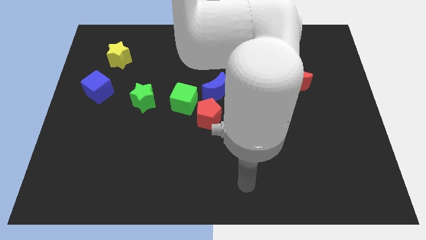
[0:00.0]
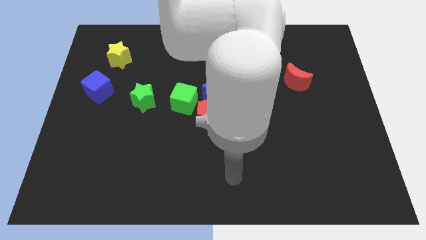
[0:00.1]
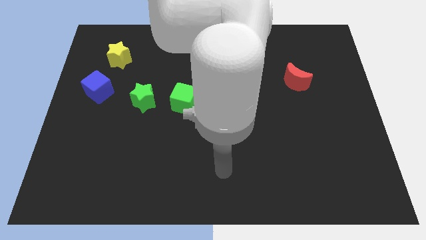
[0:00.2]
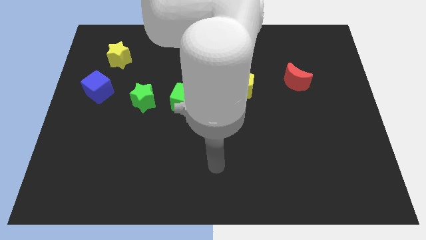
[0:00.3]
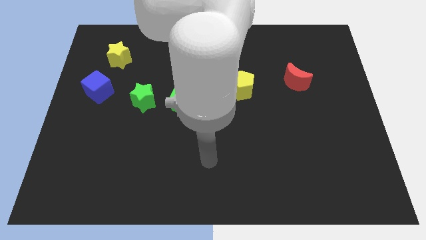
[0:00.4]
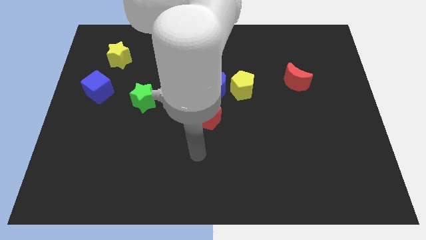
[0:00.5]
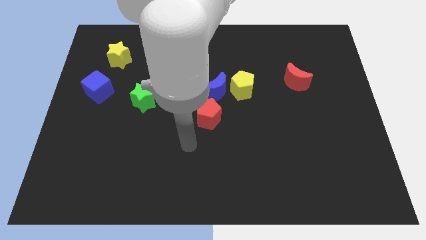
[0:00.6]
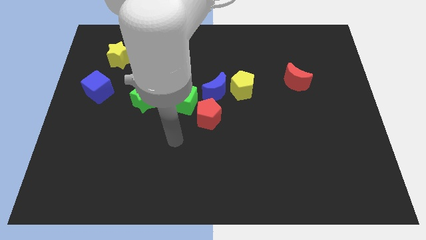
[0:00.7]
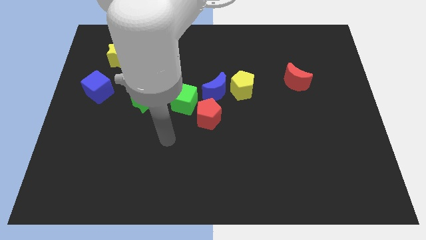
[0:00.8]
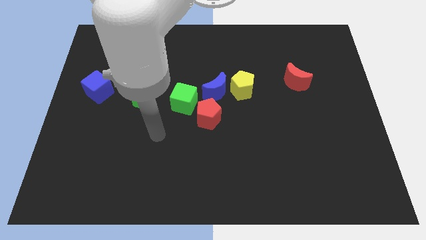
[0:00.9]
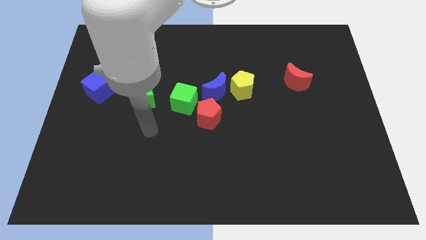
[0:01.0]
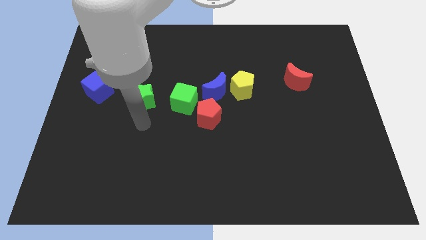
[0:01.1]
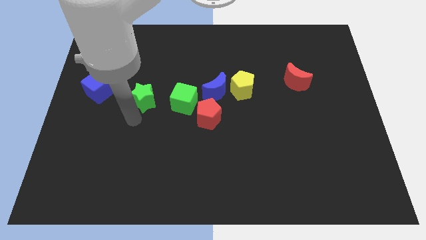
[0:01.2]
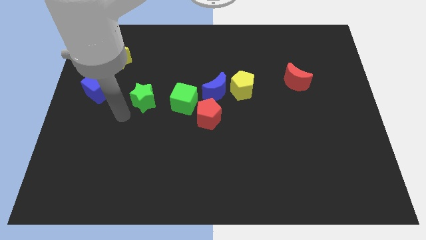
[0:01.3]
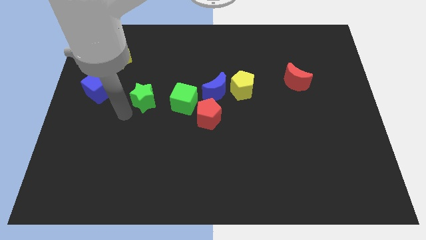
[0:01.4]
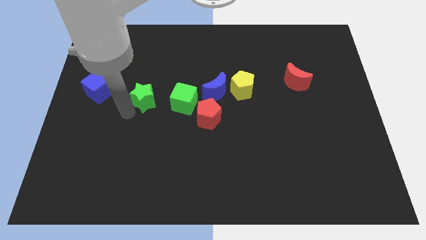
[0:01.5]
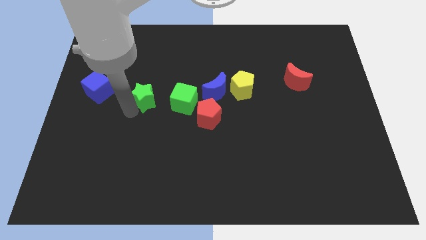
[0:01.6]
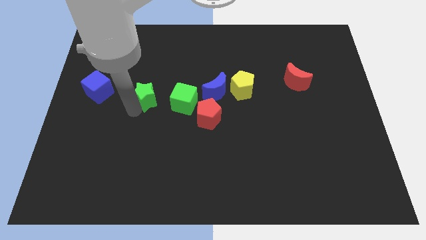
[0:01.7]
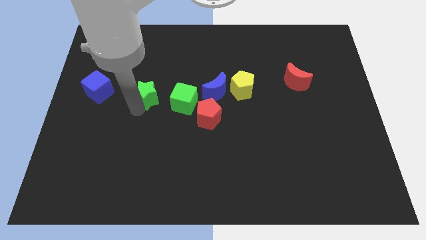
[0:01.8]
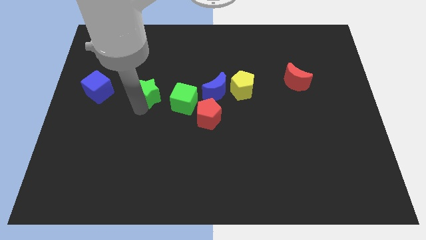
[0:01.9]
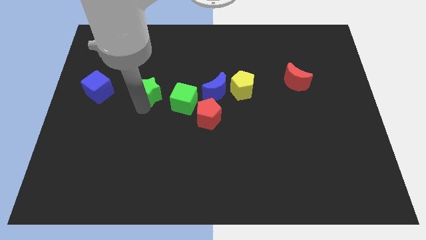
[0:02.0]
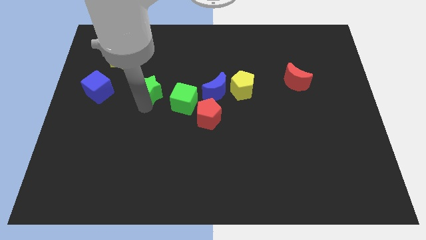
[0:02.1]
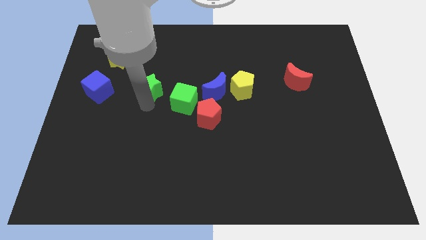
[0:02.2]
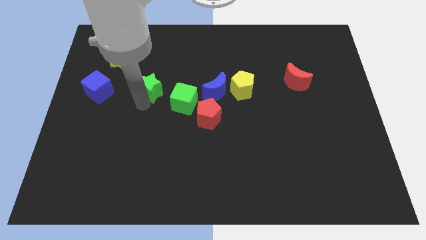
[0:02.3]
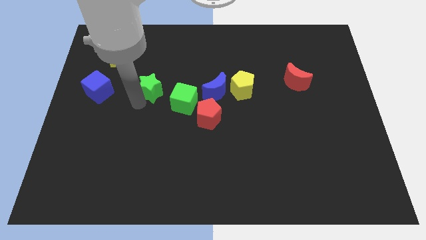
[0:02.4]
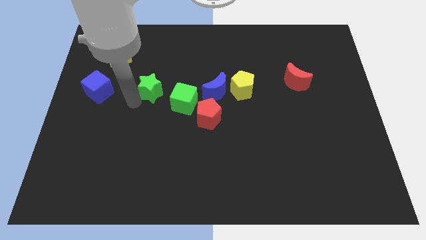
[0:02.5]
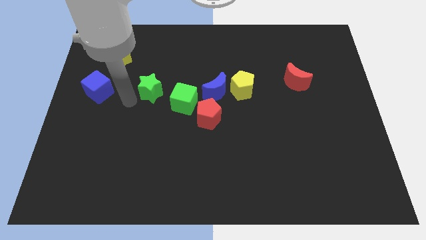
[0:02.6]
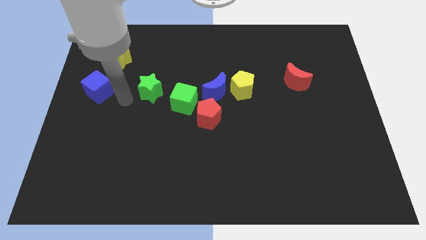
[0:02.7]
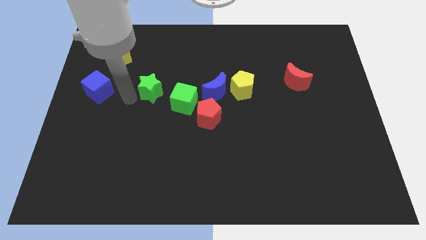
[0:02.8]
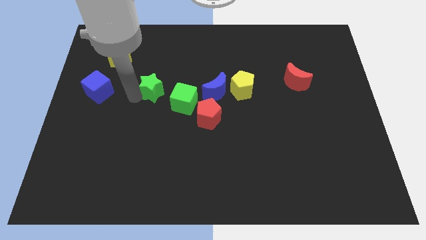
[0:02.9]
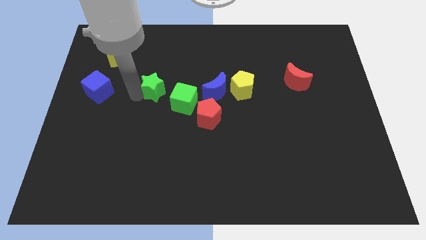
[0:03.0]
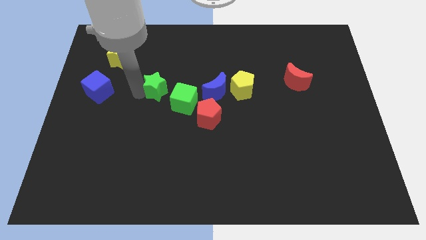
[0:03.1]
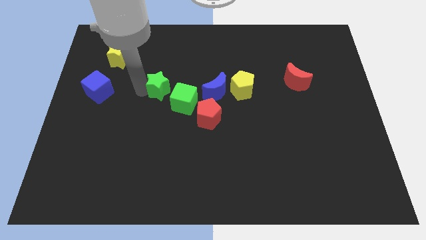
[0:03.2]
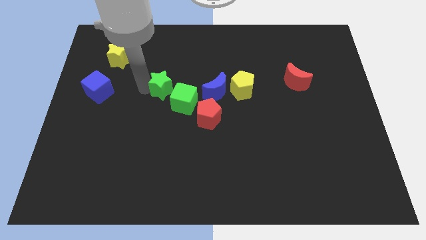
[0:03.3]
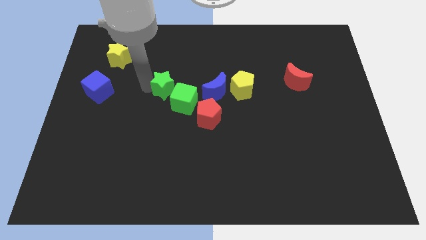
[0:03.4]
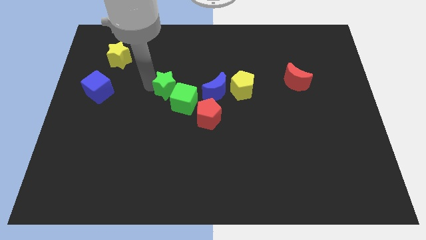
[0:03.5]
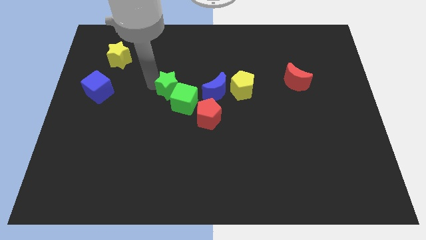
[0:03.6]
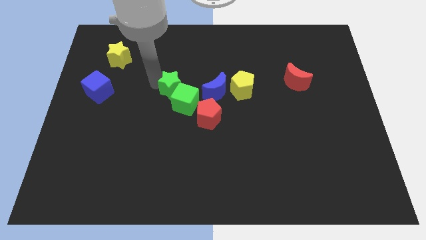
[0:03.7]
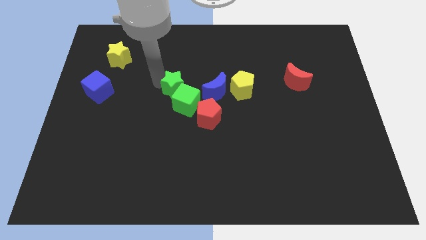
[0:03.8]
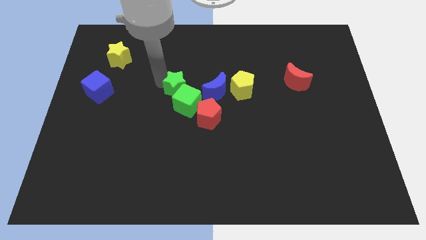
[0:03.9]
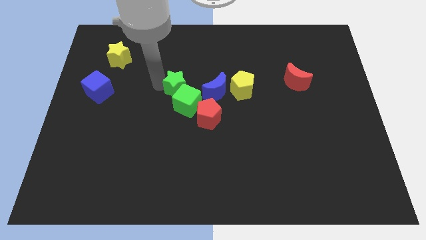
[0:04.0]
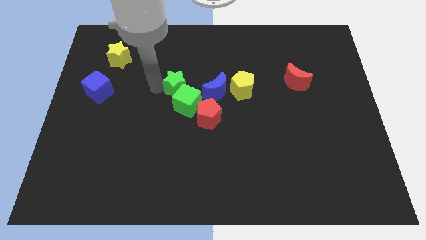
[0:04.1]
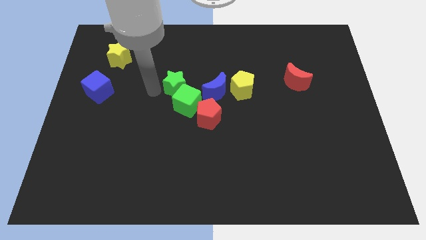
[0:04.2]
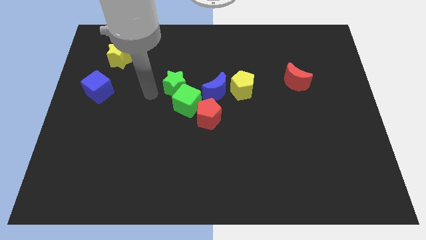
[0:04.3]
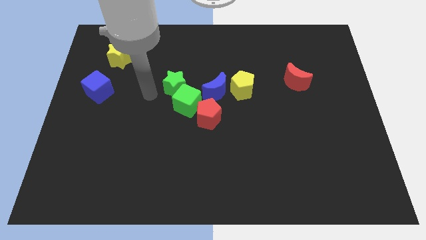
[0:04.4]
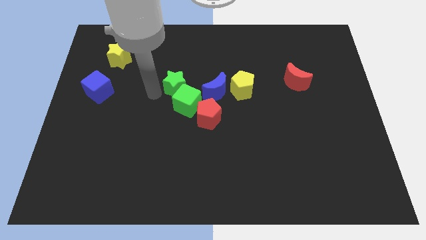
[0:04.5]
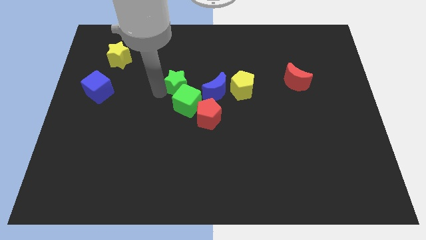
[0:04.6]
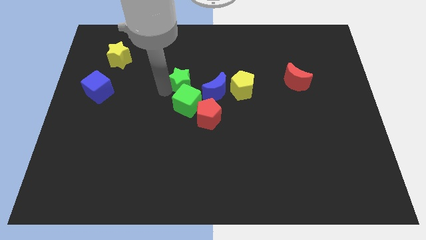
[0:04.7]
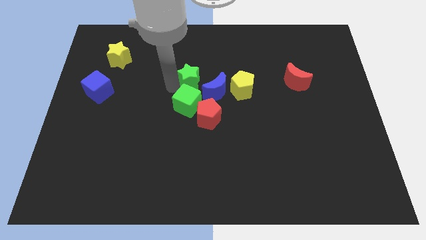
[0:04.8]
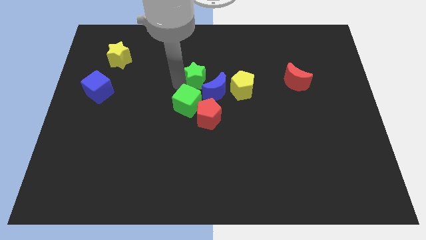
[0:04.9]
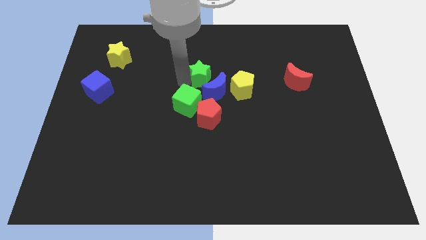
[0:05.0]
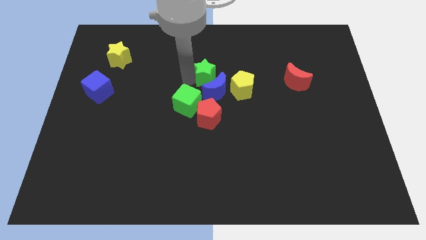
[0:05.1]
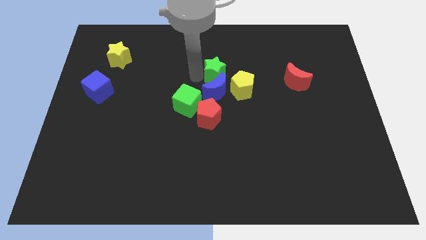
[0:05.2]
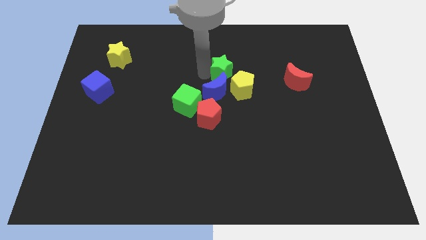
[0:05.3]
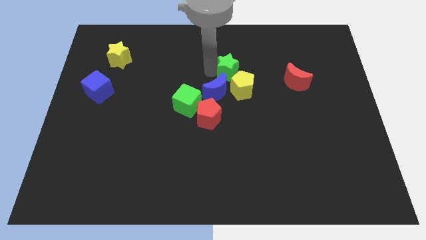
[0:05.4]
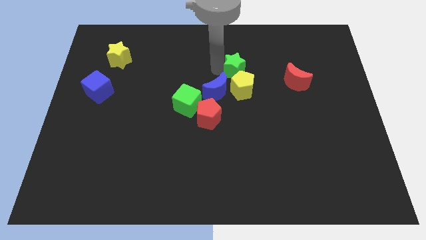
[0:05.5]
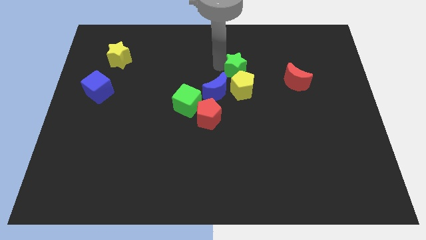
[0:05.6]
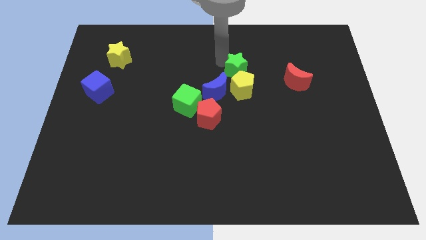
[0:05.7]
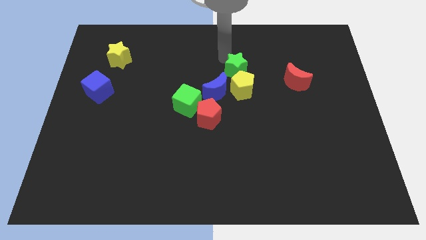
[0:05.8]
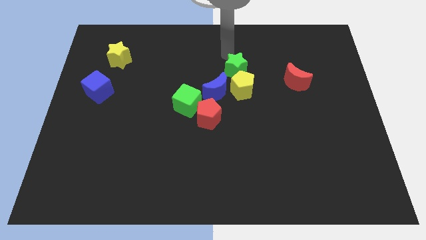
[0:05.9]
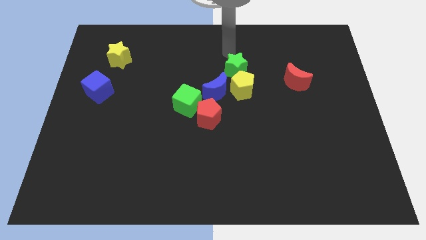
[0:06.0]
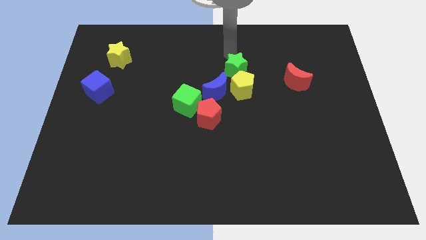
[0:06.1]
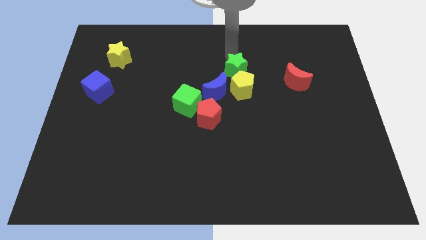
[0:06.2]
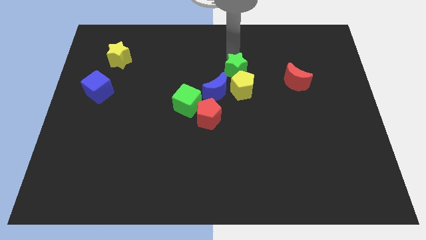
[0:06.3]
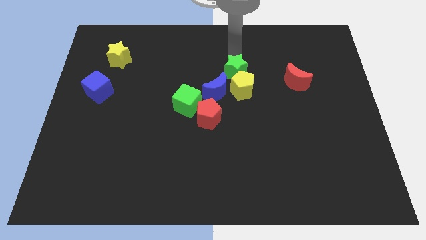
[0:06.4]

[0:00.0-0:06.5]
move the green star towards the yellow pentagon

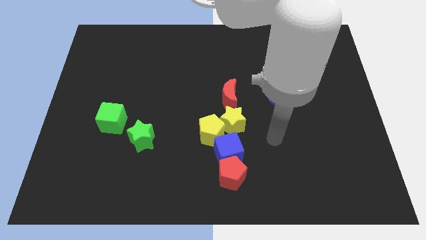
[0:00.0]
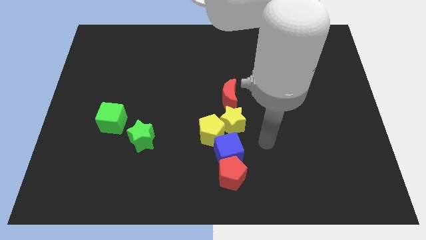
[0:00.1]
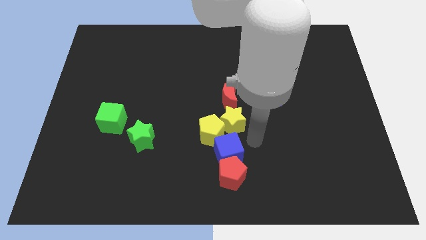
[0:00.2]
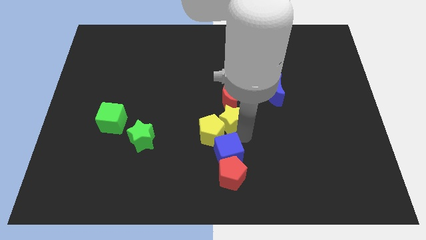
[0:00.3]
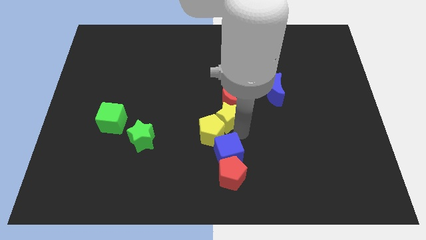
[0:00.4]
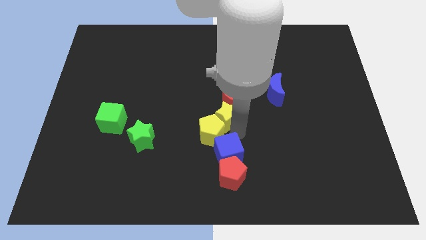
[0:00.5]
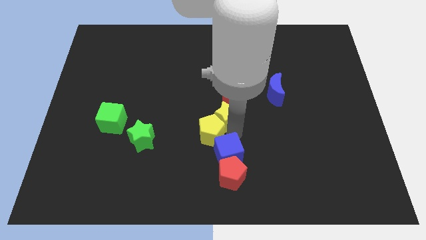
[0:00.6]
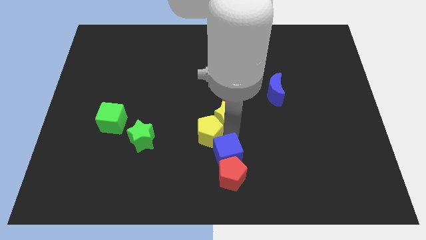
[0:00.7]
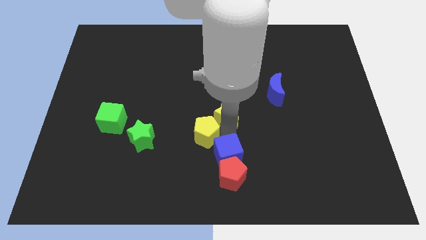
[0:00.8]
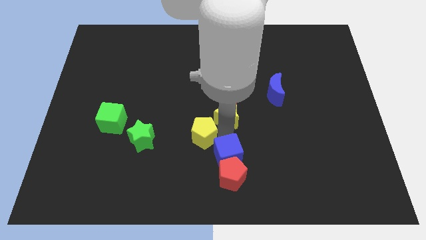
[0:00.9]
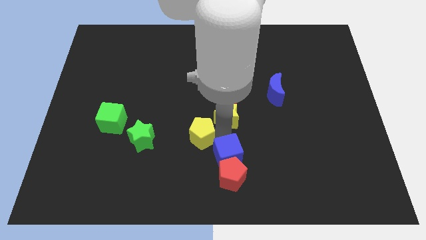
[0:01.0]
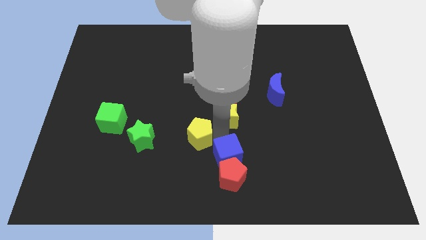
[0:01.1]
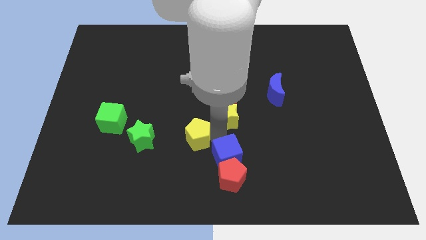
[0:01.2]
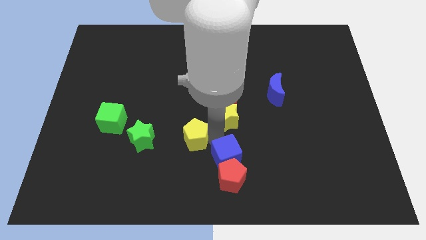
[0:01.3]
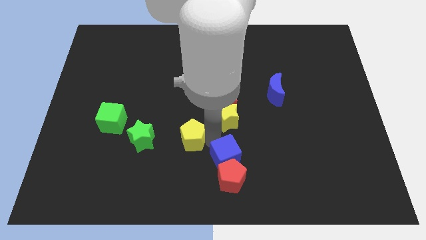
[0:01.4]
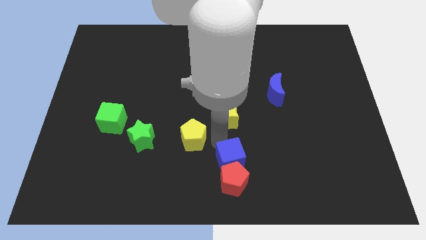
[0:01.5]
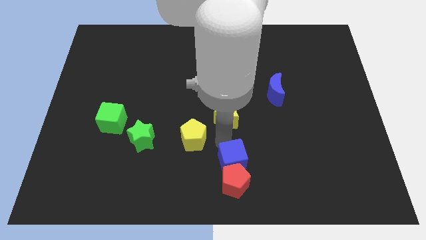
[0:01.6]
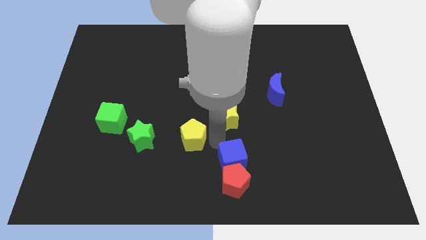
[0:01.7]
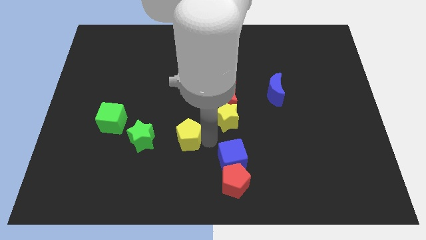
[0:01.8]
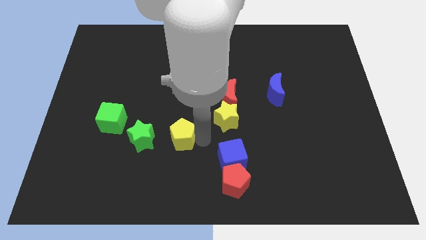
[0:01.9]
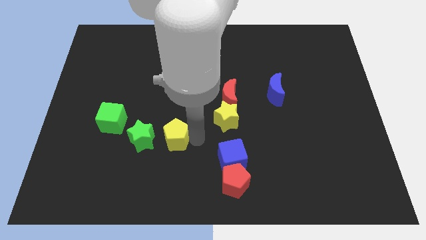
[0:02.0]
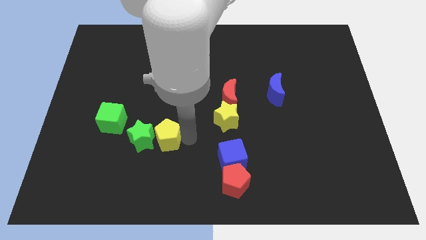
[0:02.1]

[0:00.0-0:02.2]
push the yellow pentagon towards the green star
